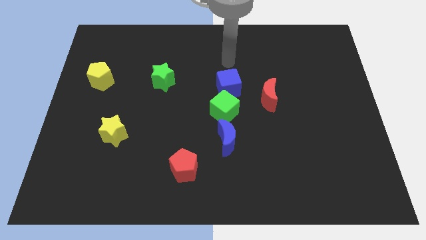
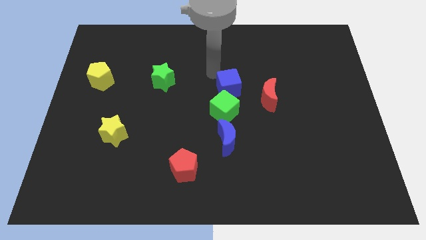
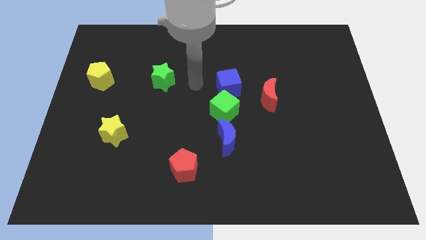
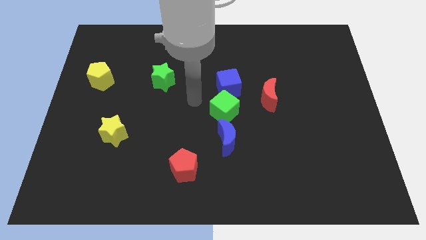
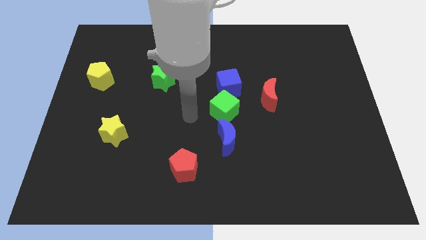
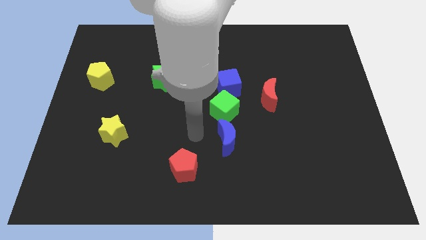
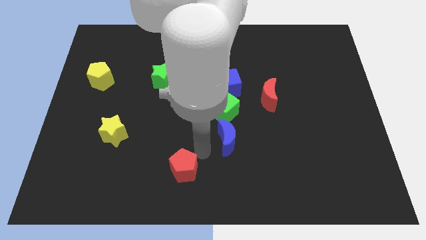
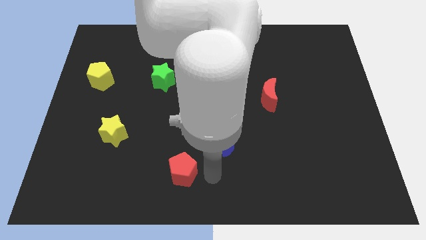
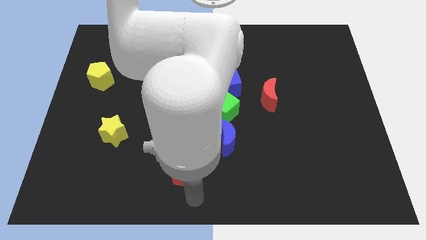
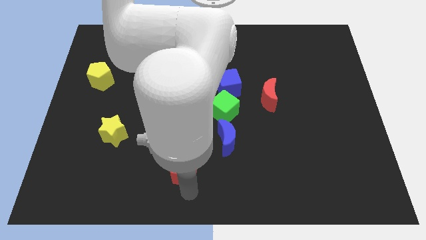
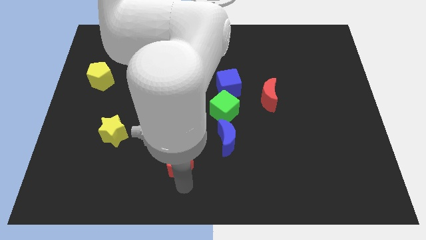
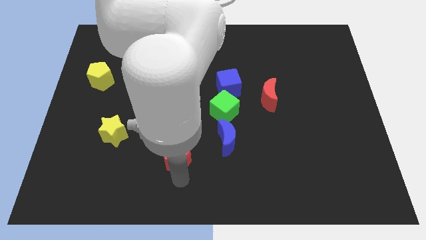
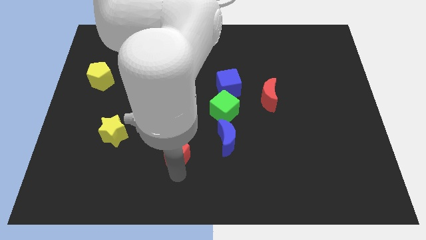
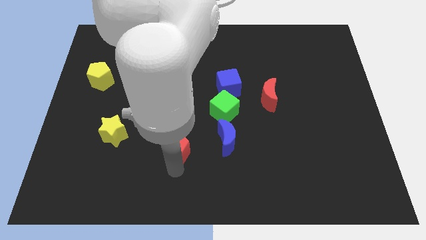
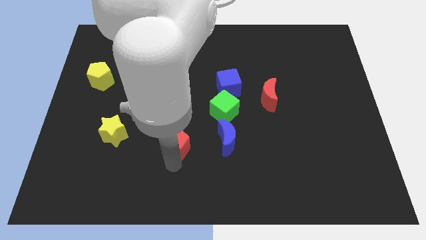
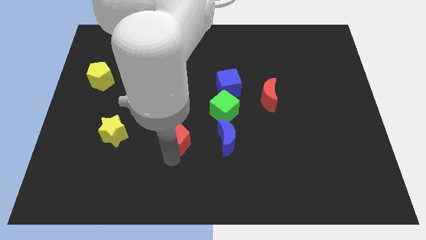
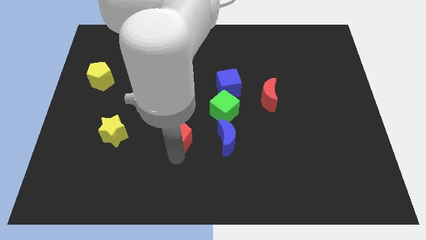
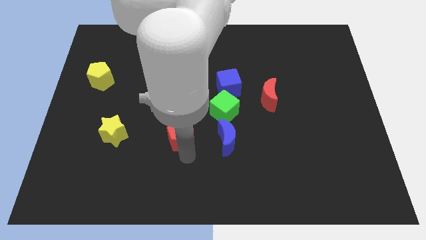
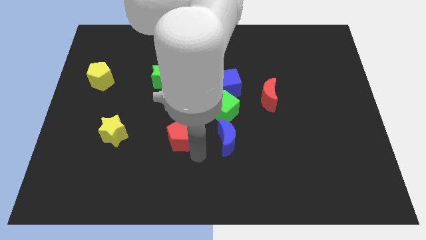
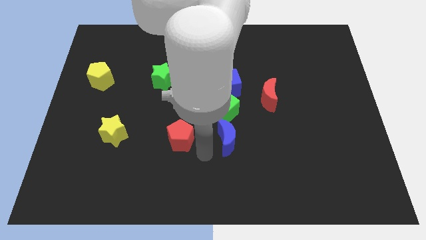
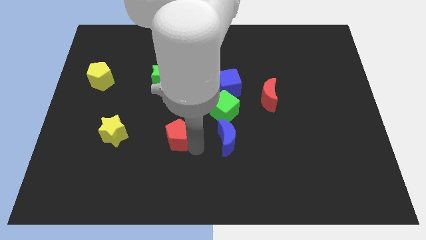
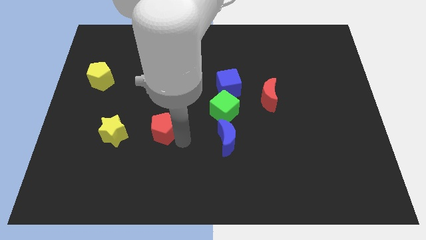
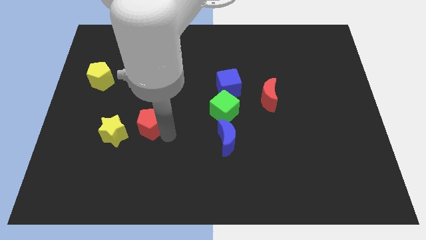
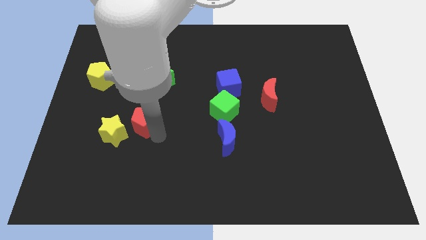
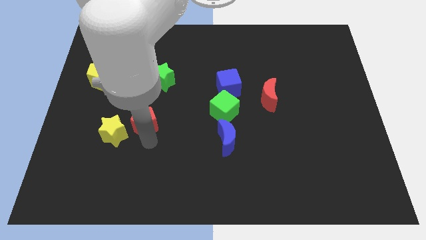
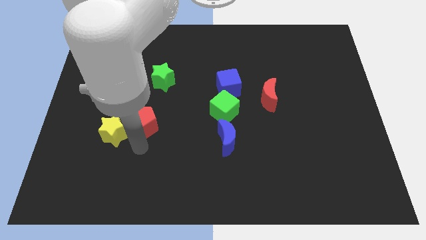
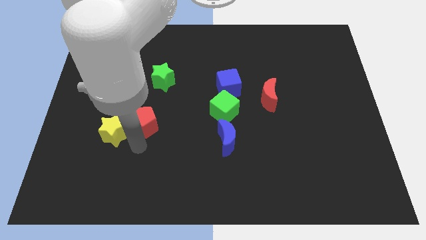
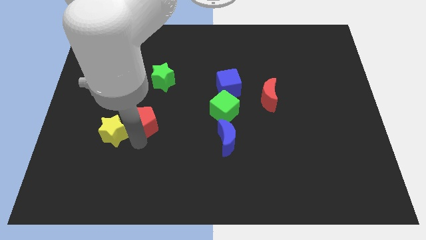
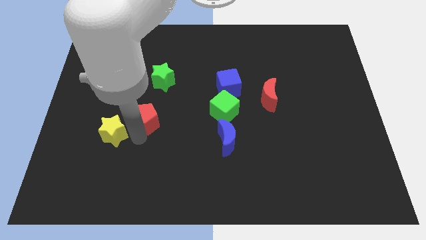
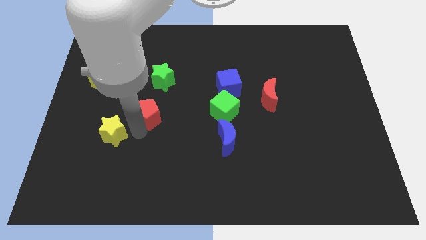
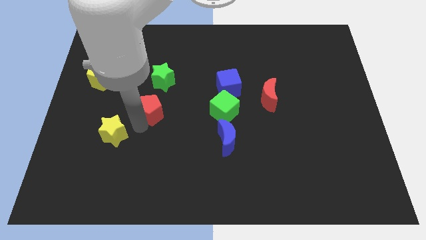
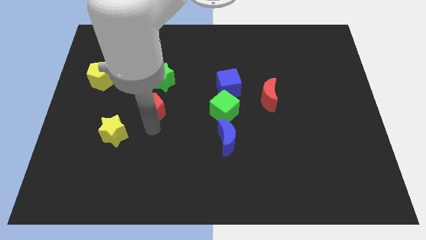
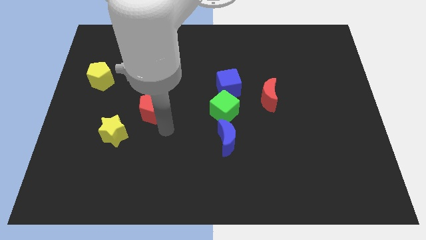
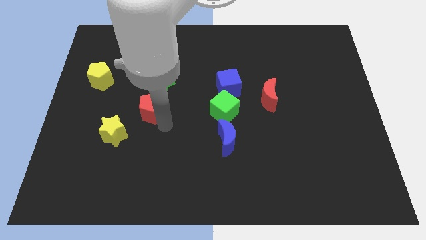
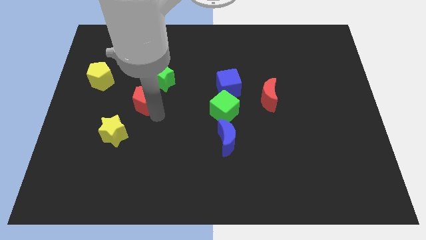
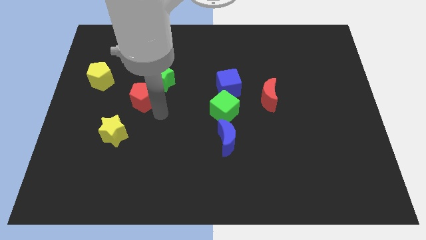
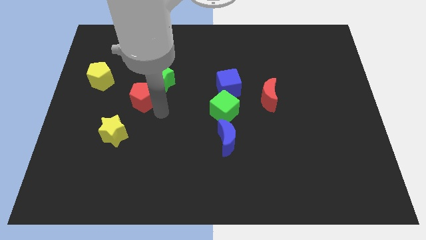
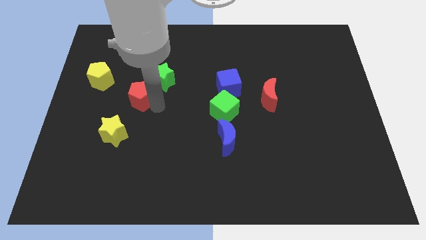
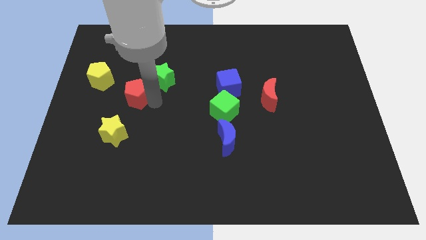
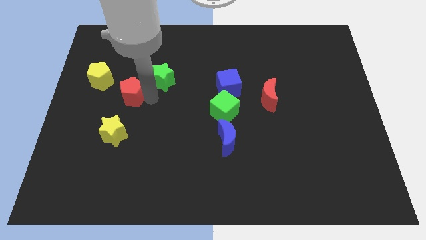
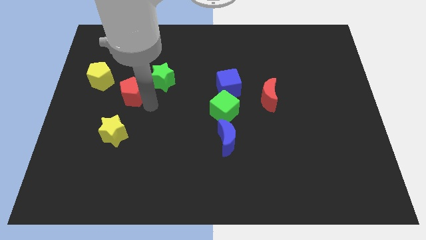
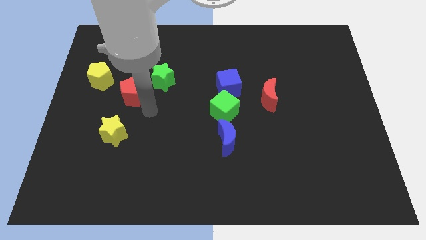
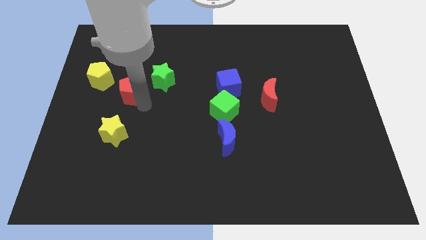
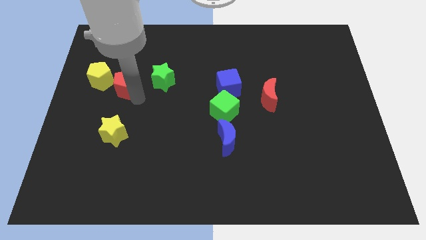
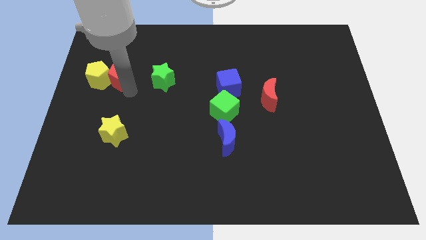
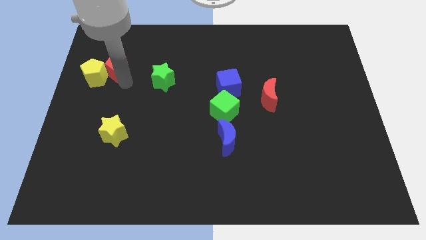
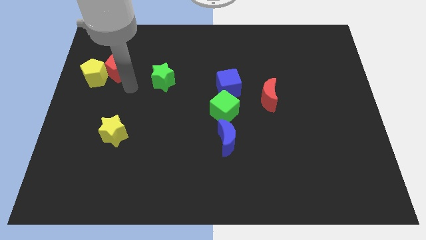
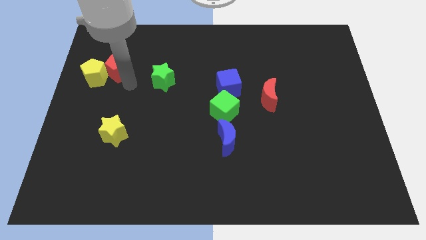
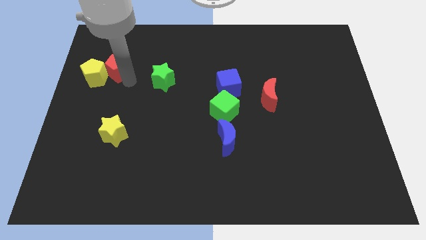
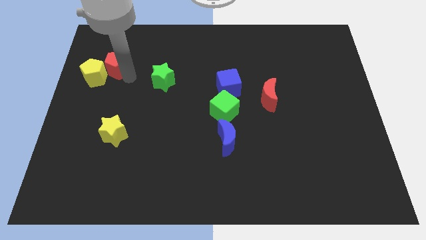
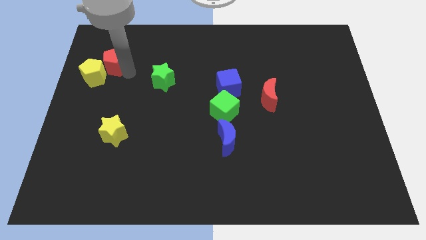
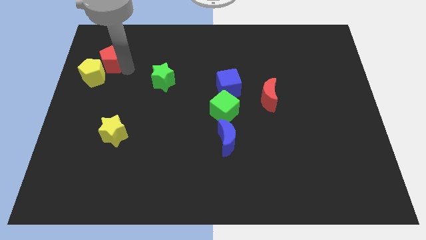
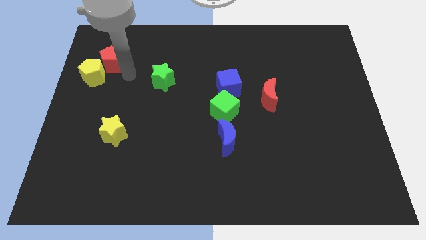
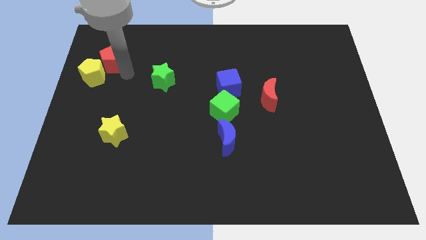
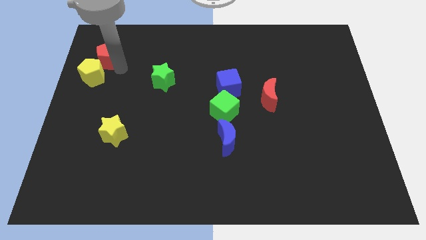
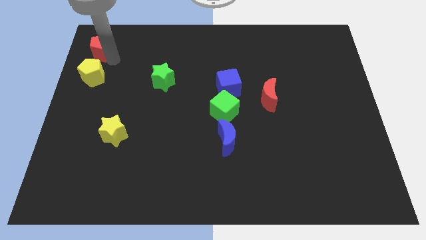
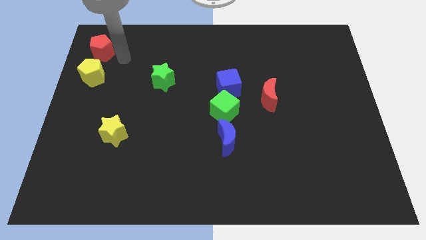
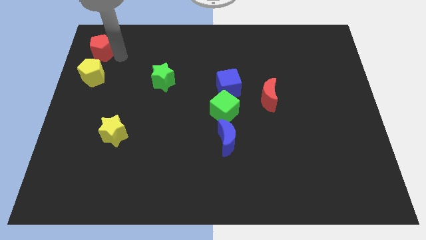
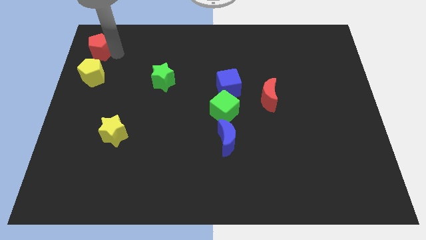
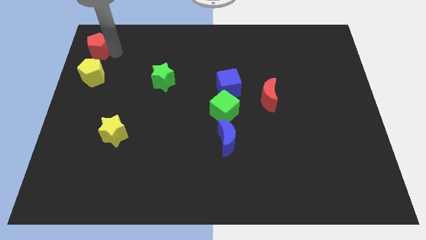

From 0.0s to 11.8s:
slide the red pentagon to the top left of the board
